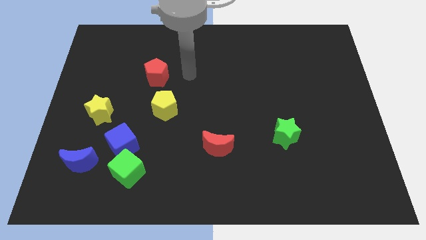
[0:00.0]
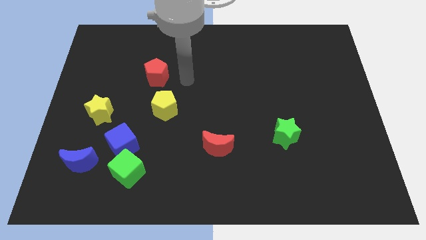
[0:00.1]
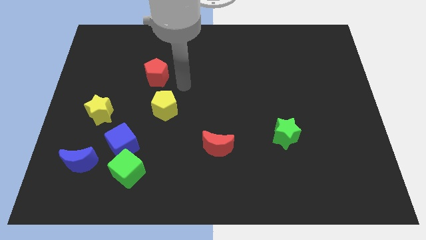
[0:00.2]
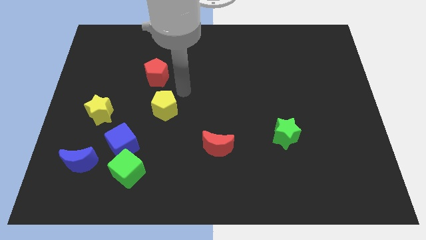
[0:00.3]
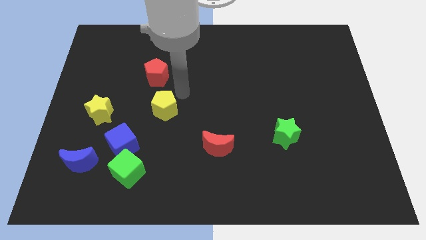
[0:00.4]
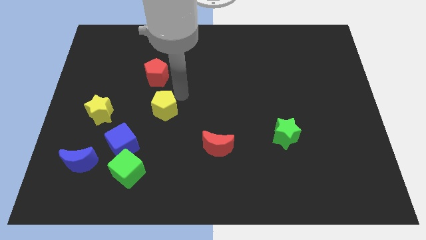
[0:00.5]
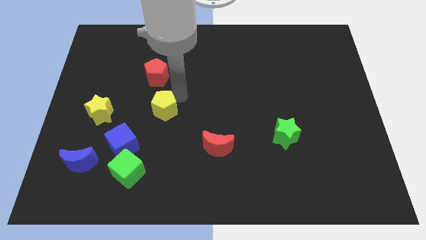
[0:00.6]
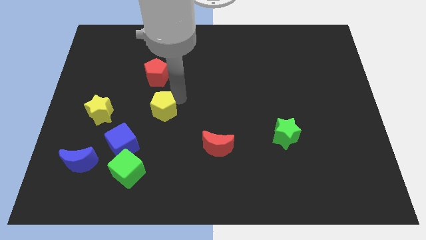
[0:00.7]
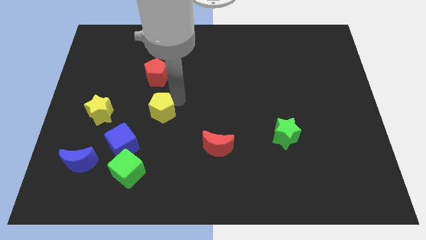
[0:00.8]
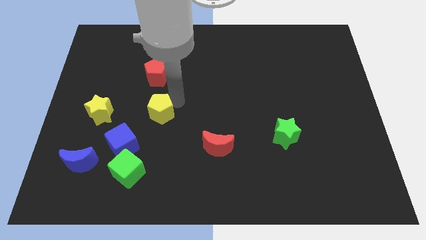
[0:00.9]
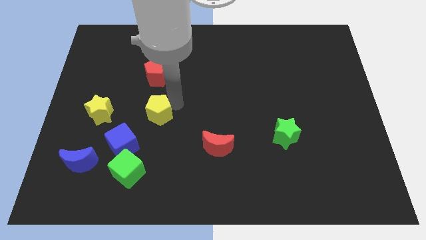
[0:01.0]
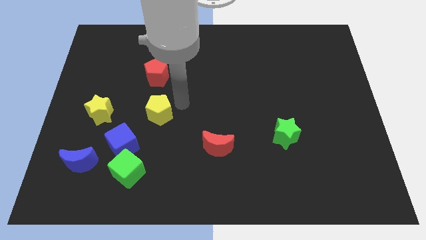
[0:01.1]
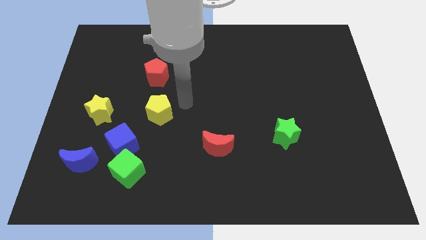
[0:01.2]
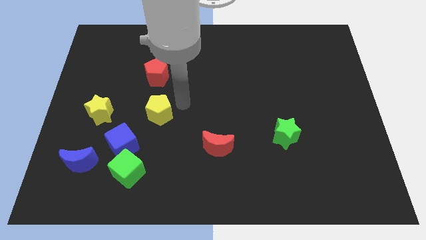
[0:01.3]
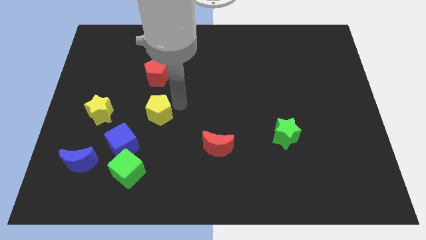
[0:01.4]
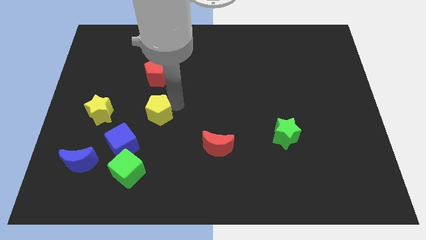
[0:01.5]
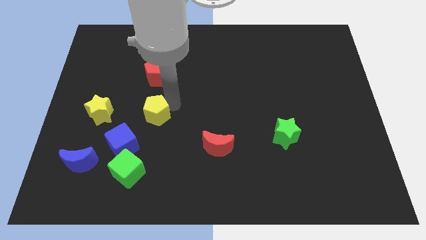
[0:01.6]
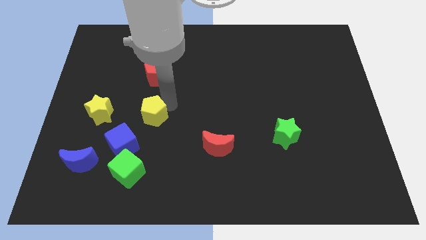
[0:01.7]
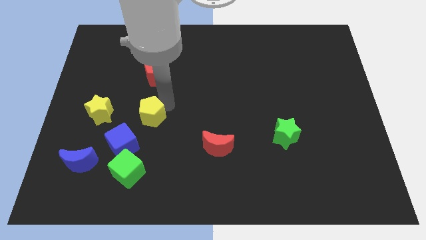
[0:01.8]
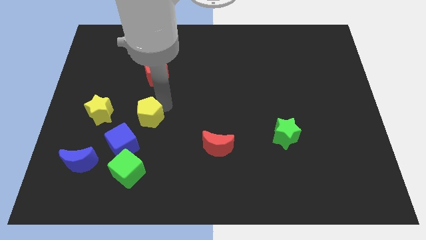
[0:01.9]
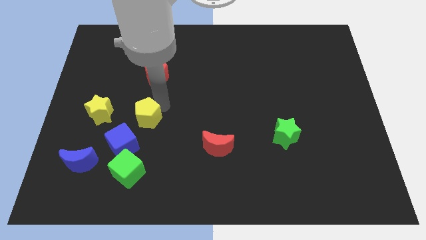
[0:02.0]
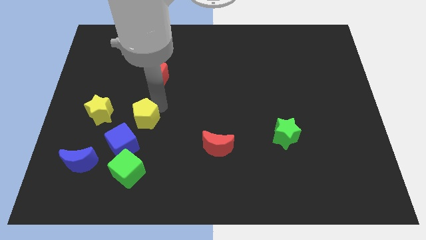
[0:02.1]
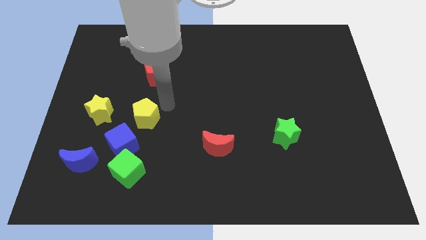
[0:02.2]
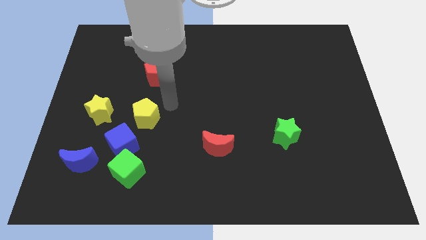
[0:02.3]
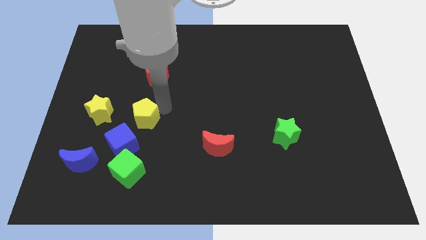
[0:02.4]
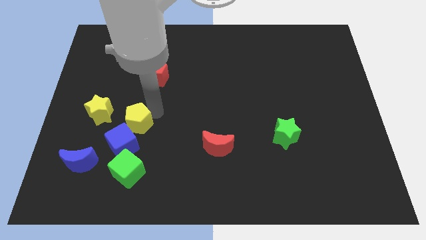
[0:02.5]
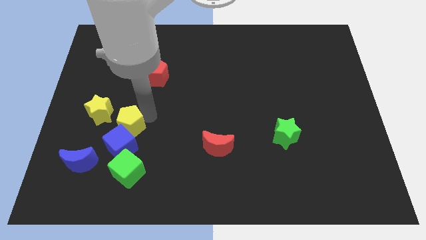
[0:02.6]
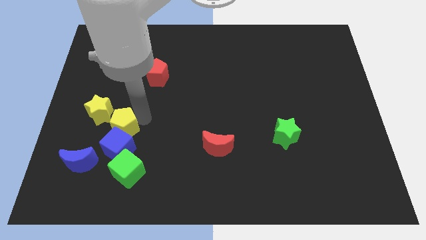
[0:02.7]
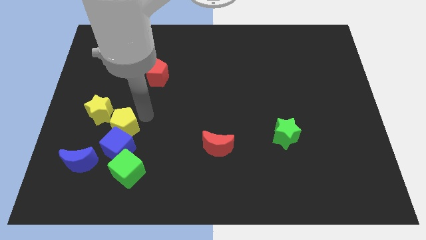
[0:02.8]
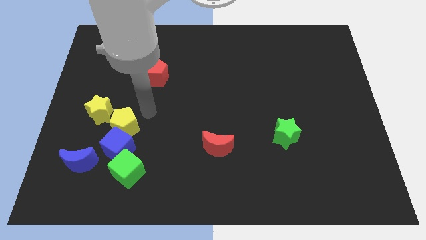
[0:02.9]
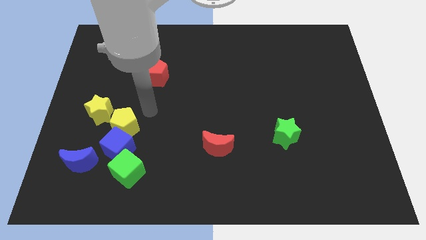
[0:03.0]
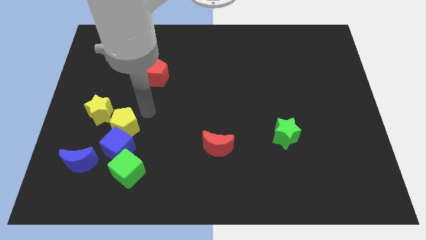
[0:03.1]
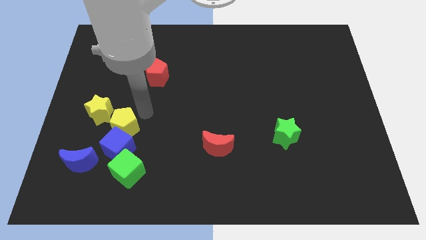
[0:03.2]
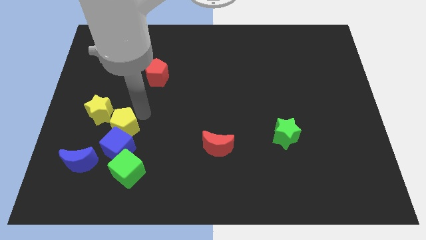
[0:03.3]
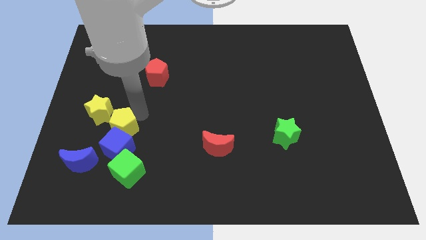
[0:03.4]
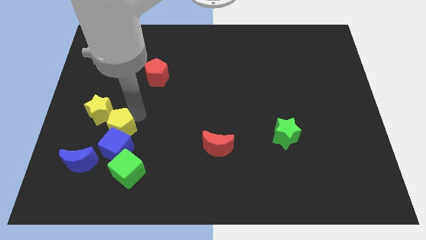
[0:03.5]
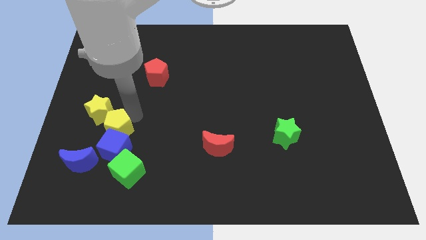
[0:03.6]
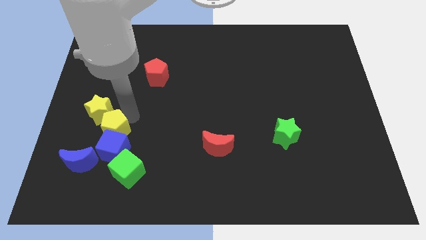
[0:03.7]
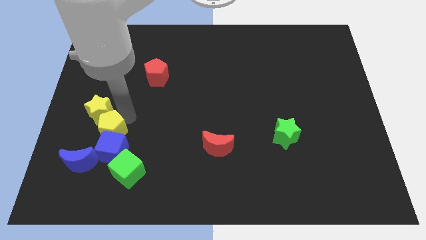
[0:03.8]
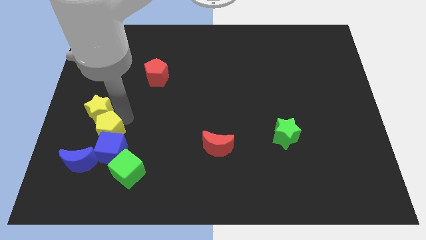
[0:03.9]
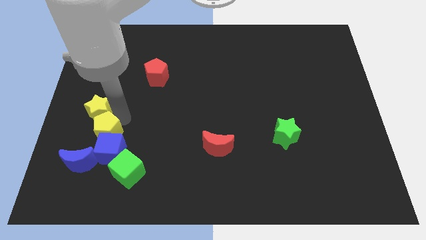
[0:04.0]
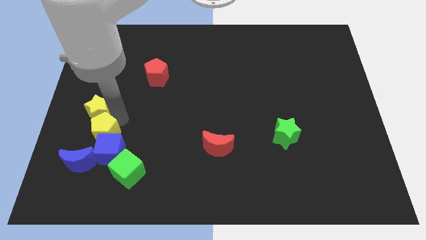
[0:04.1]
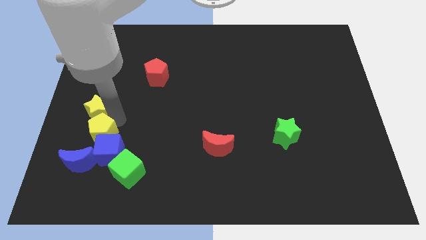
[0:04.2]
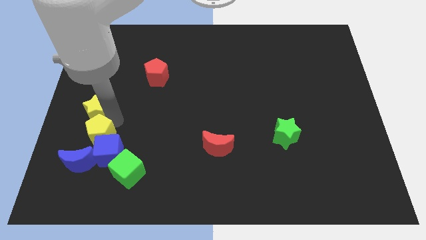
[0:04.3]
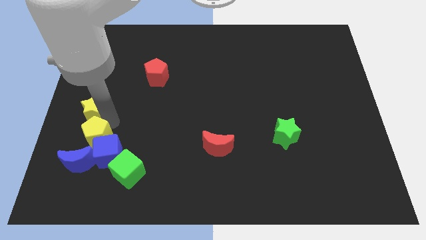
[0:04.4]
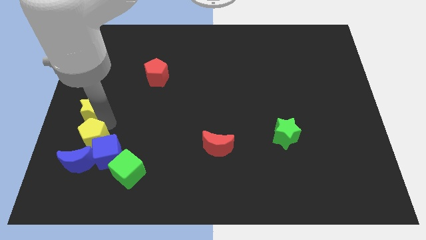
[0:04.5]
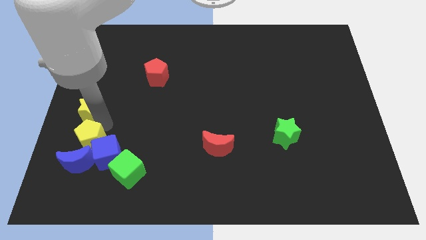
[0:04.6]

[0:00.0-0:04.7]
move the yellow pentagon next to the blue moon

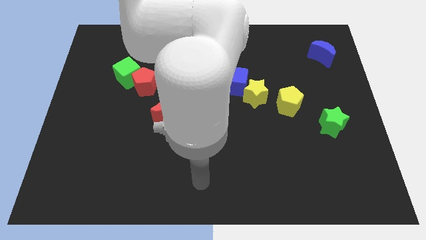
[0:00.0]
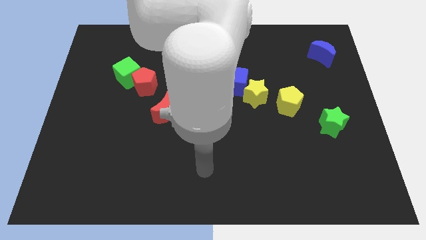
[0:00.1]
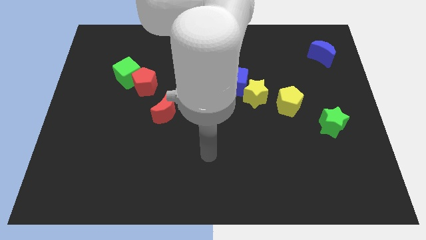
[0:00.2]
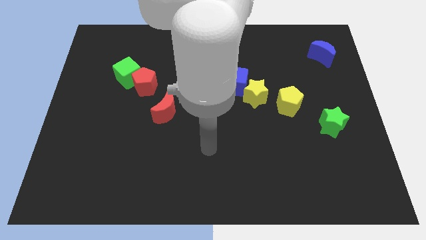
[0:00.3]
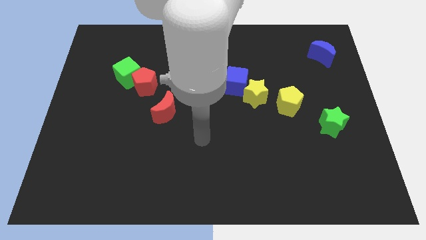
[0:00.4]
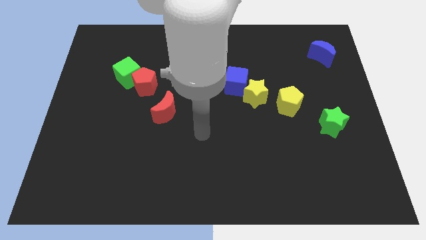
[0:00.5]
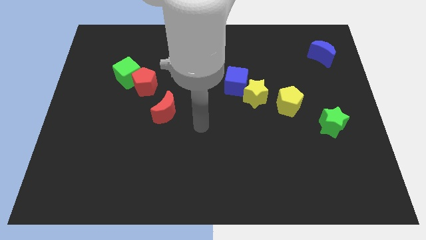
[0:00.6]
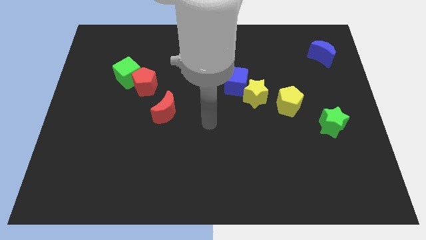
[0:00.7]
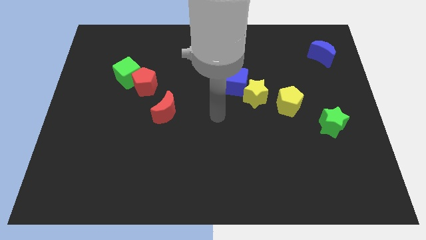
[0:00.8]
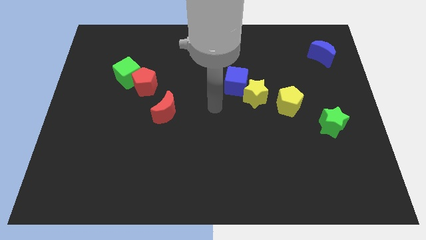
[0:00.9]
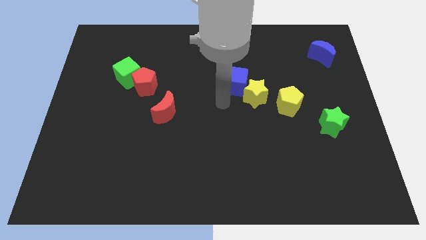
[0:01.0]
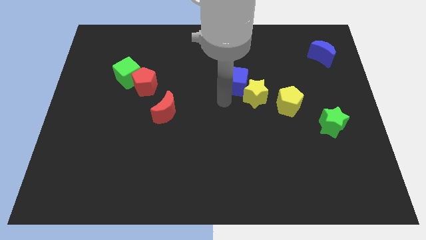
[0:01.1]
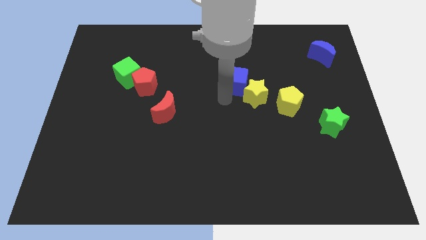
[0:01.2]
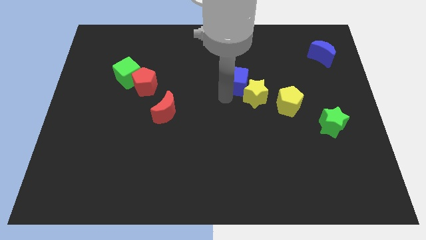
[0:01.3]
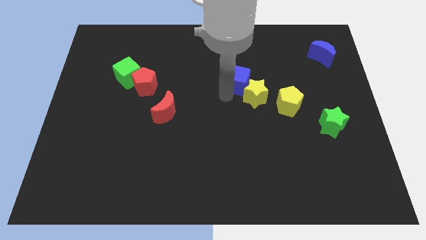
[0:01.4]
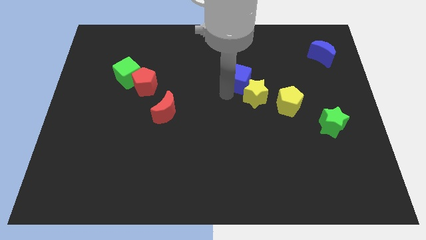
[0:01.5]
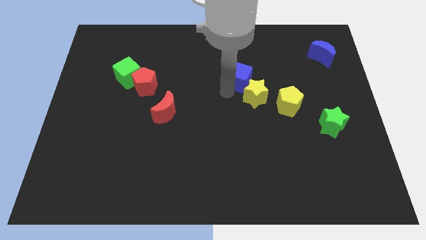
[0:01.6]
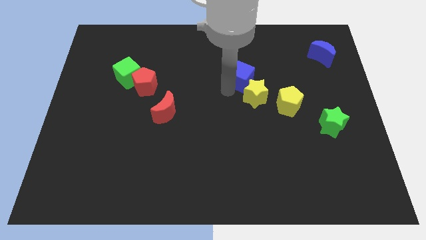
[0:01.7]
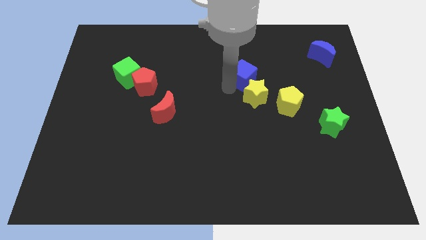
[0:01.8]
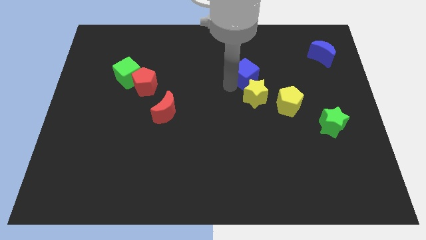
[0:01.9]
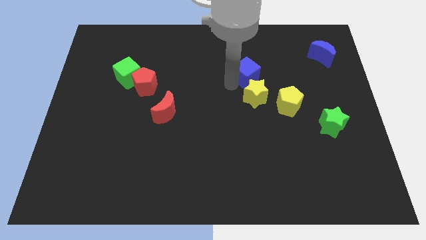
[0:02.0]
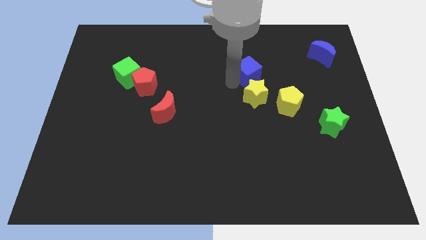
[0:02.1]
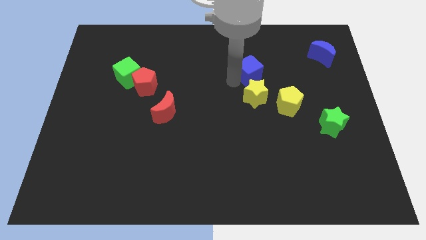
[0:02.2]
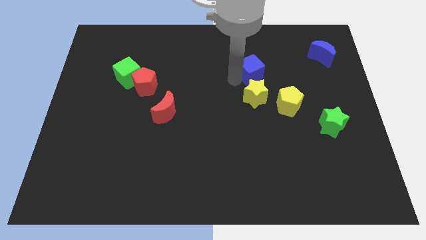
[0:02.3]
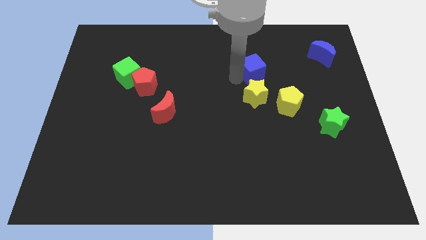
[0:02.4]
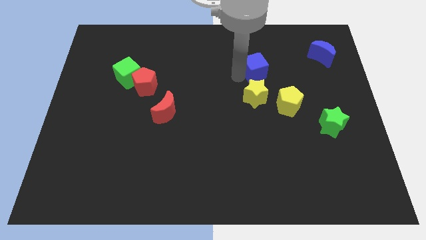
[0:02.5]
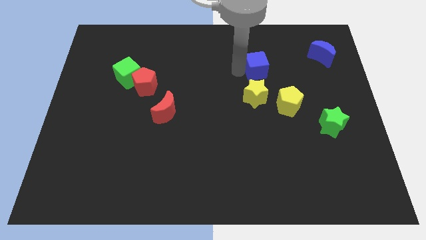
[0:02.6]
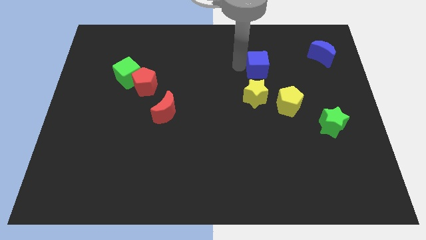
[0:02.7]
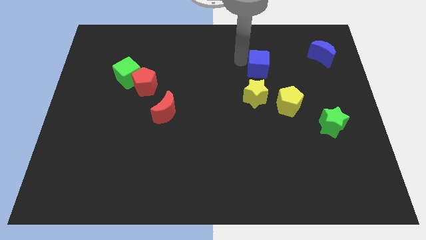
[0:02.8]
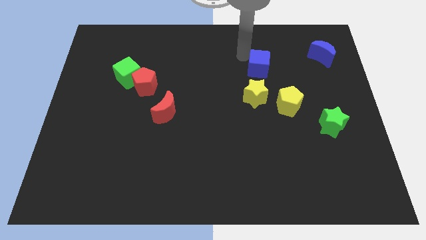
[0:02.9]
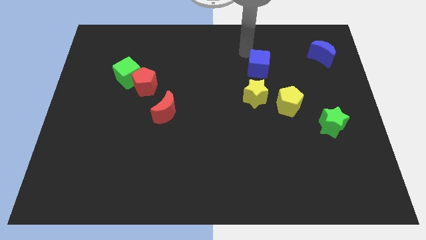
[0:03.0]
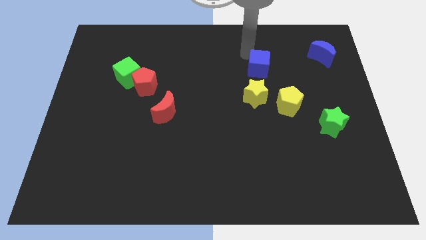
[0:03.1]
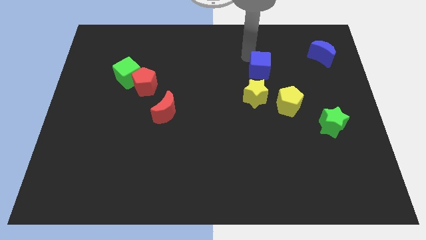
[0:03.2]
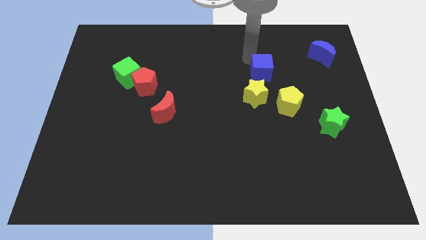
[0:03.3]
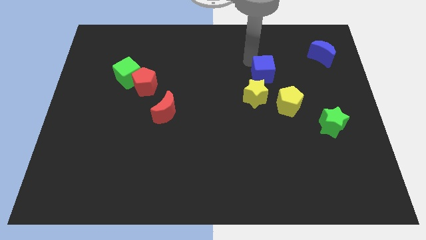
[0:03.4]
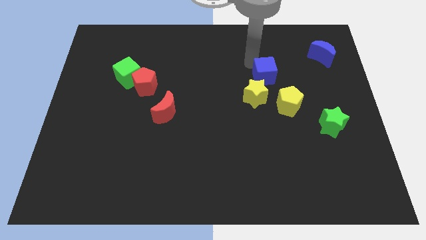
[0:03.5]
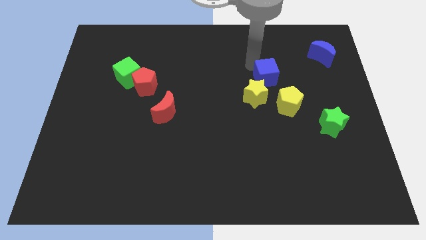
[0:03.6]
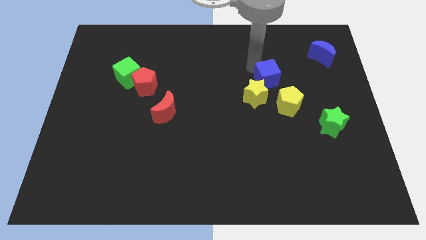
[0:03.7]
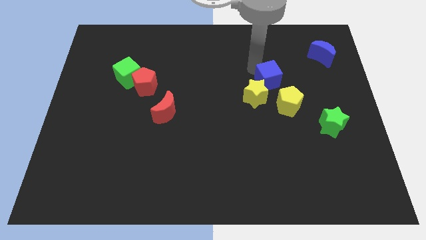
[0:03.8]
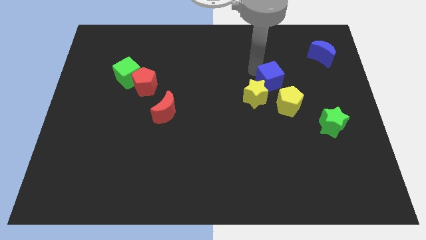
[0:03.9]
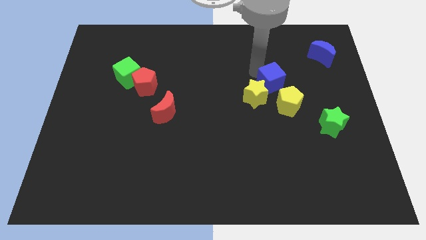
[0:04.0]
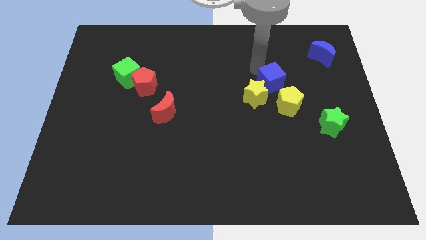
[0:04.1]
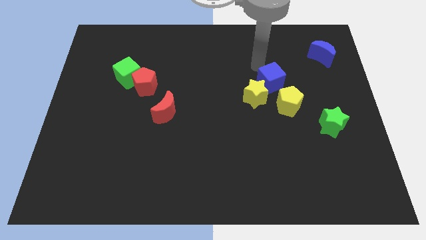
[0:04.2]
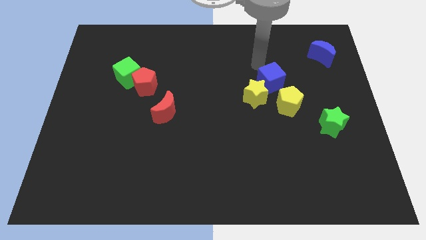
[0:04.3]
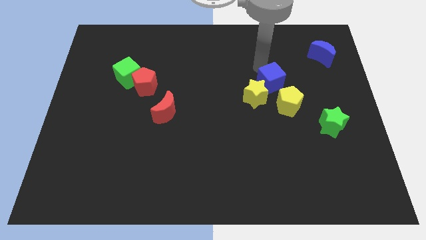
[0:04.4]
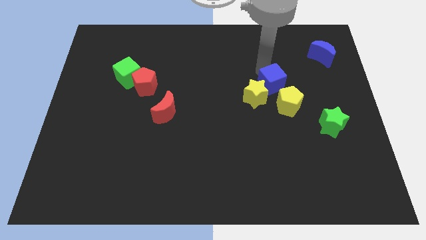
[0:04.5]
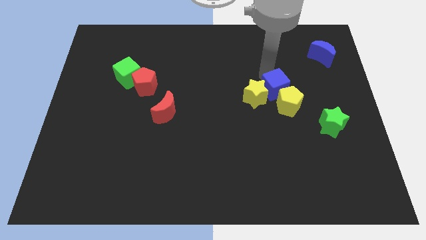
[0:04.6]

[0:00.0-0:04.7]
move the blue cube next to the yellow pentagon
